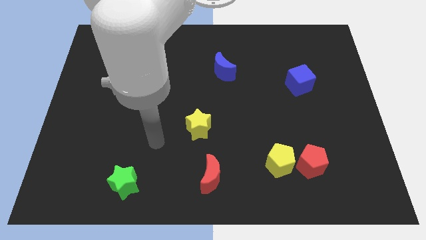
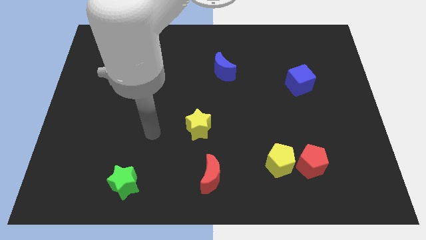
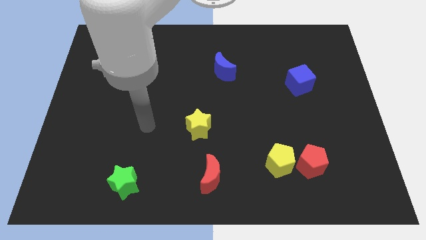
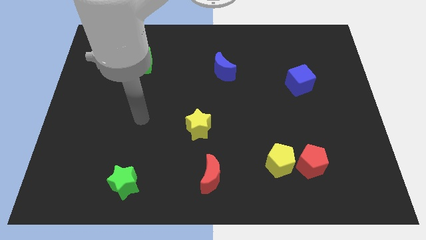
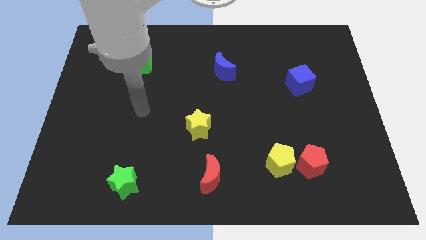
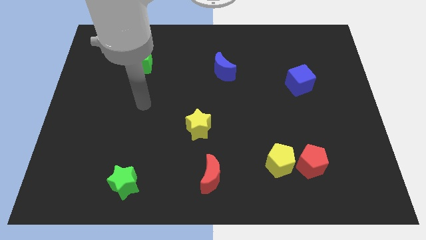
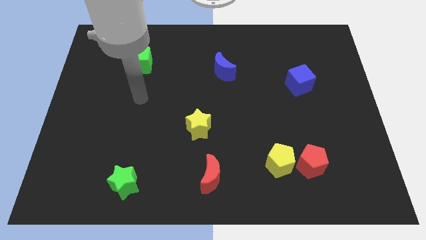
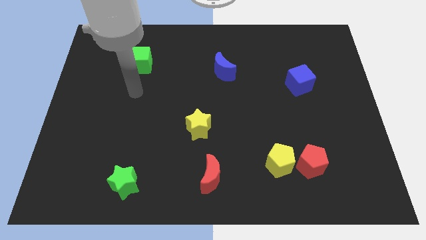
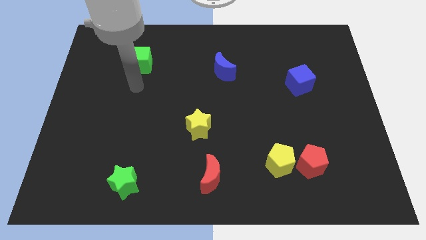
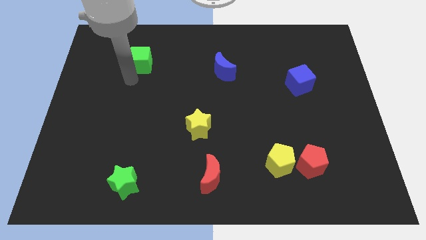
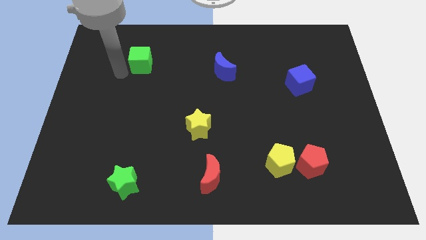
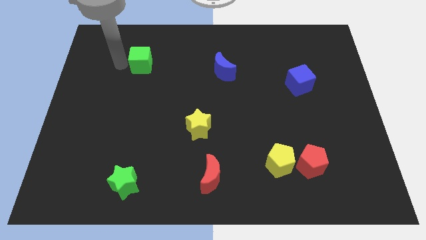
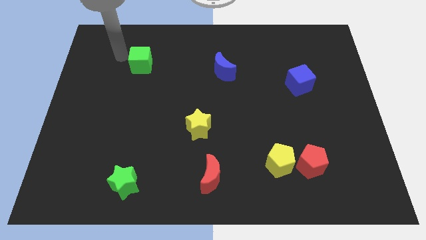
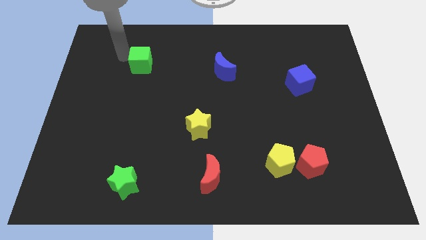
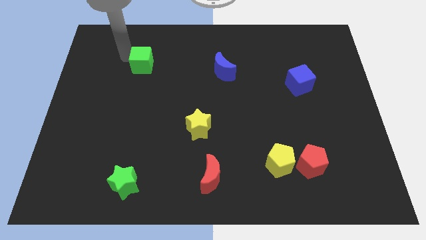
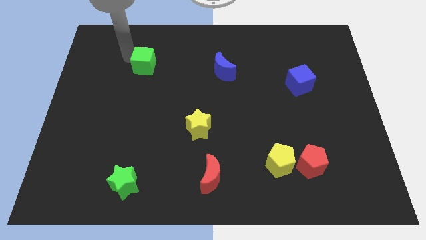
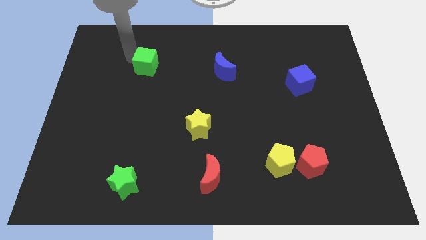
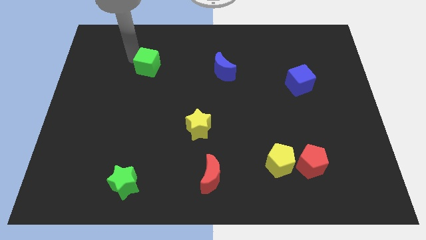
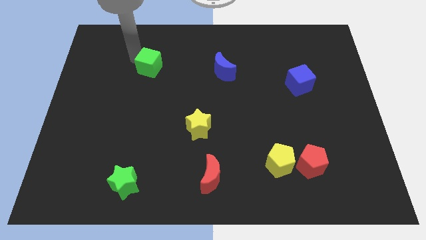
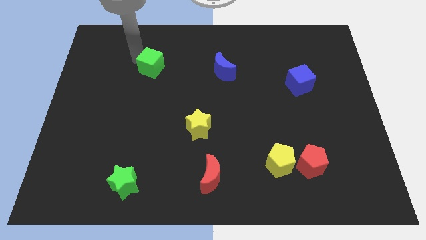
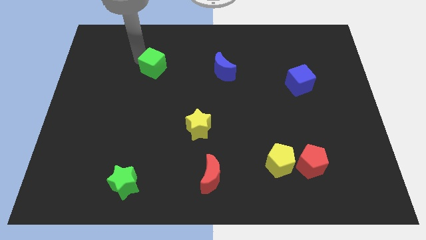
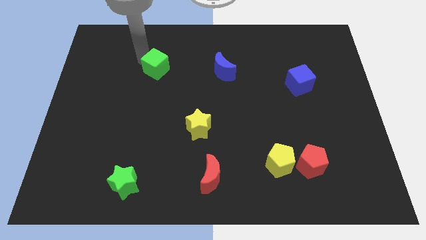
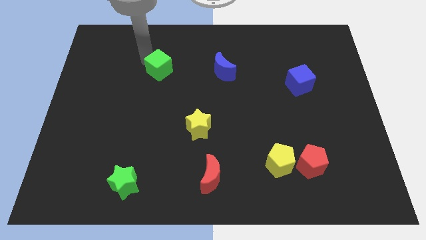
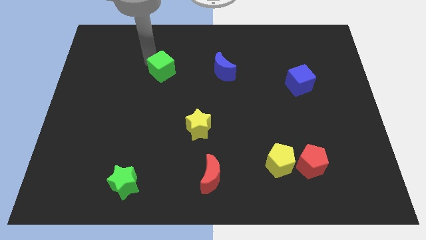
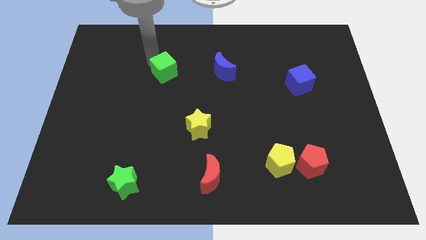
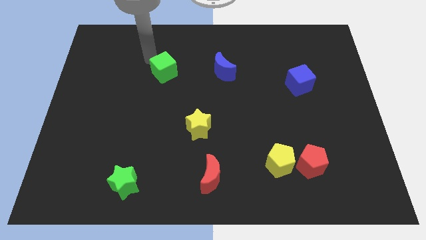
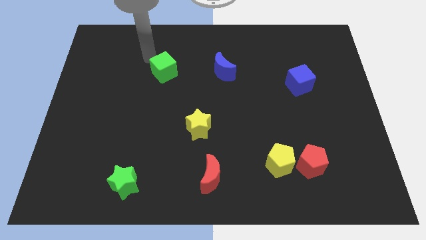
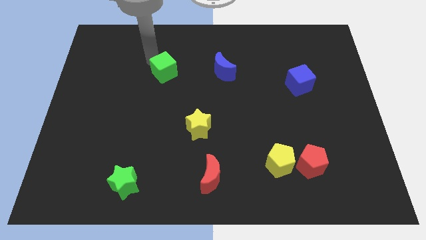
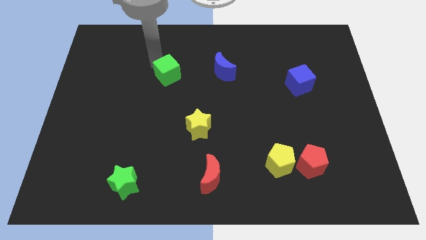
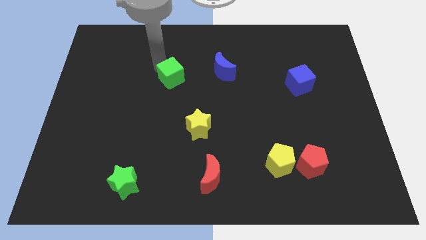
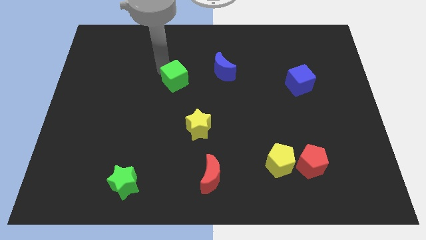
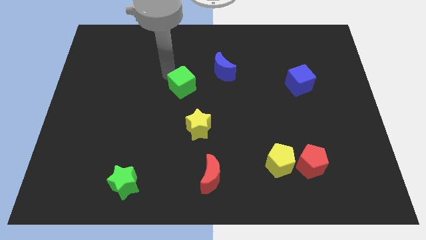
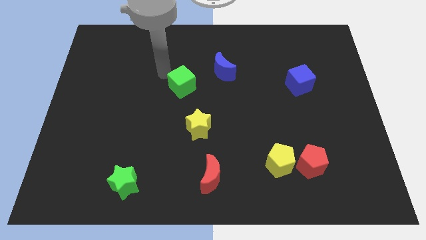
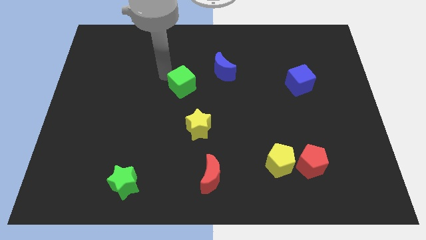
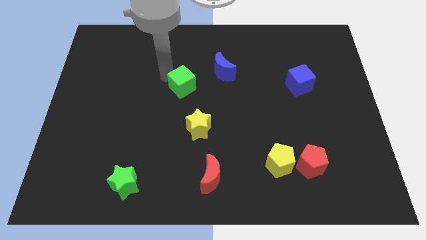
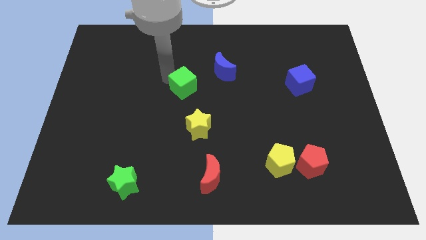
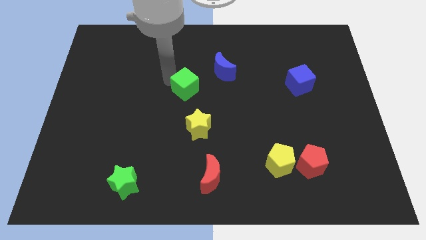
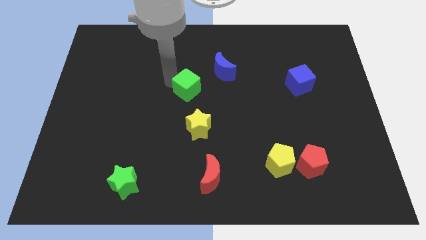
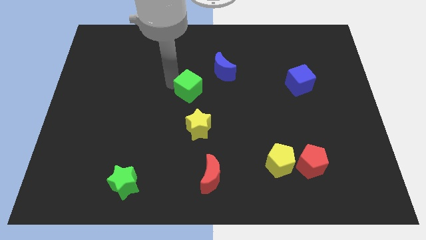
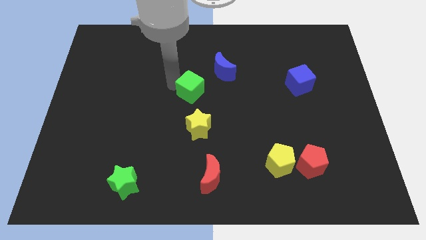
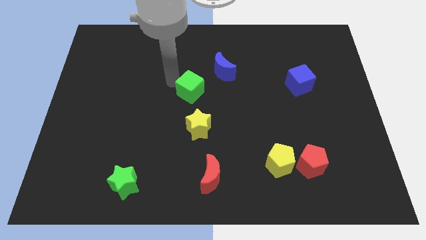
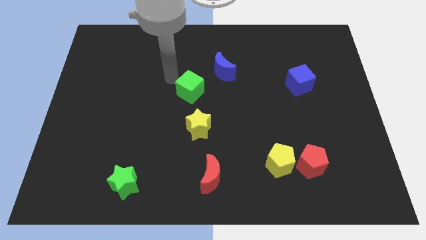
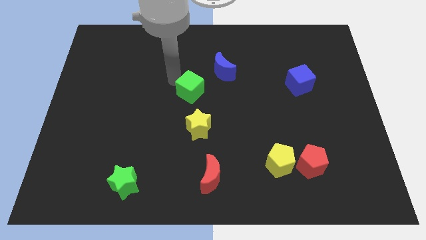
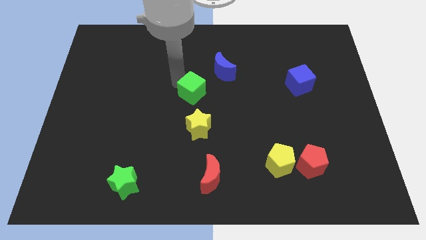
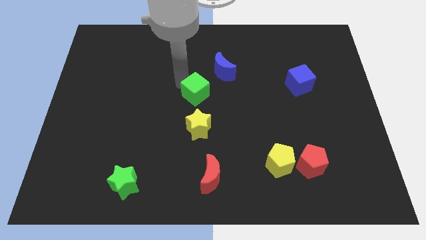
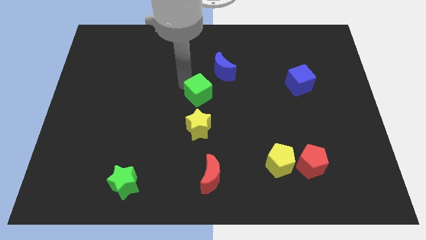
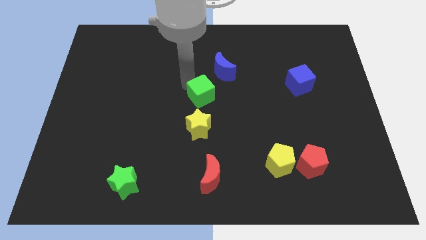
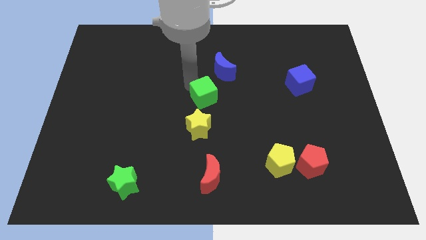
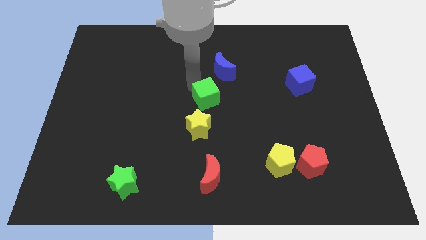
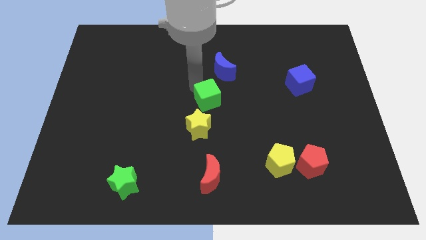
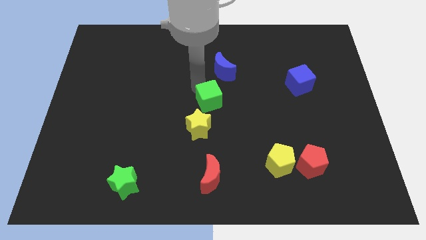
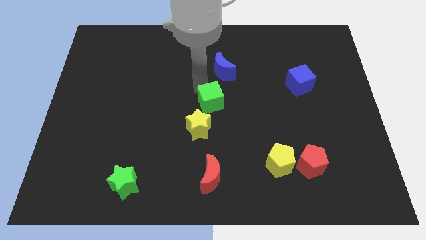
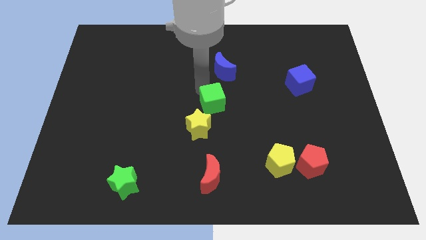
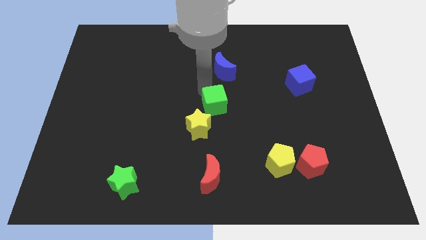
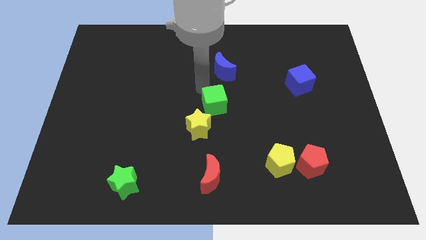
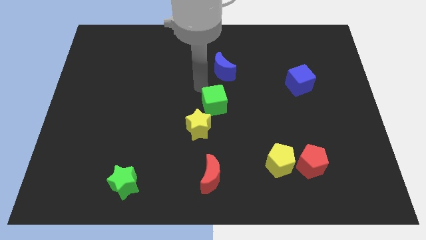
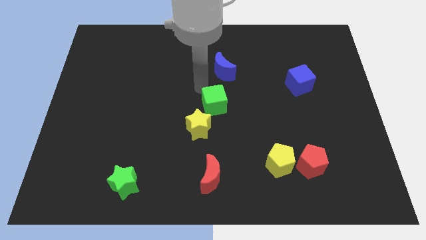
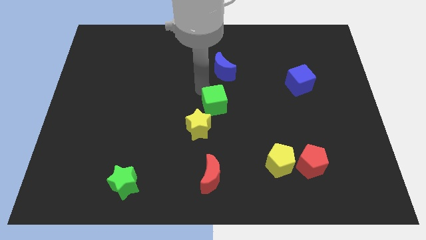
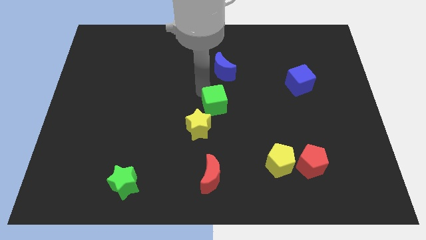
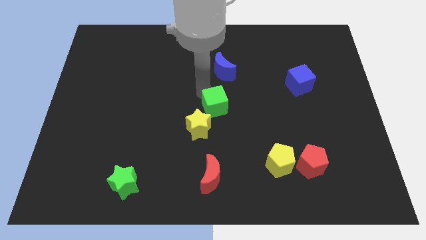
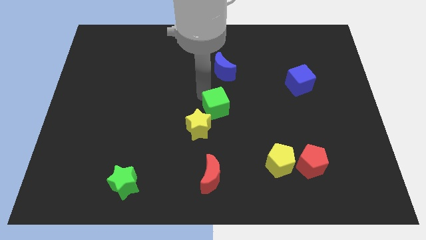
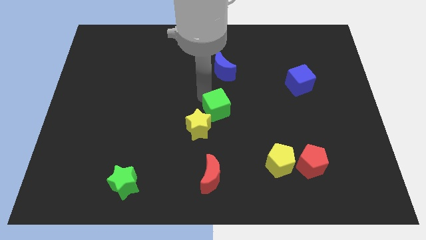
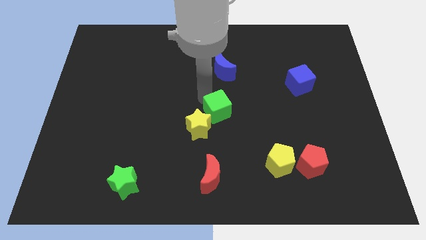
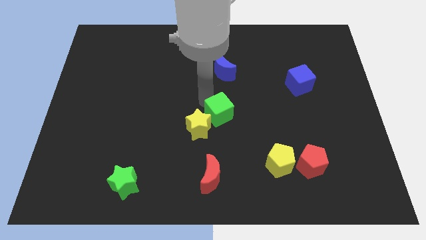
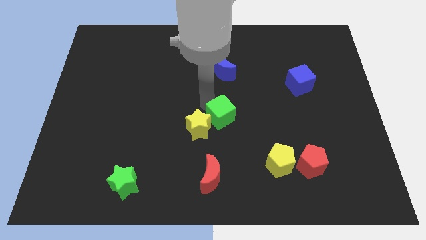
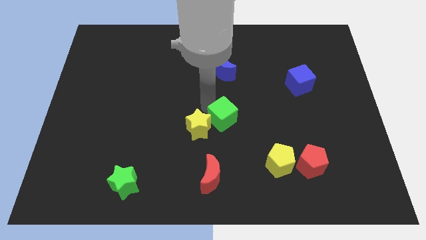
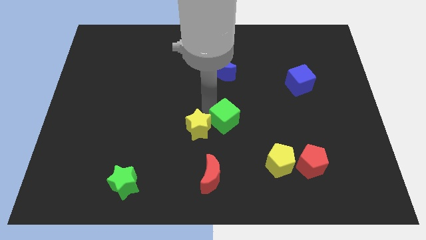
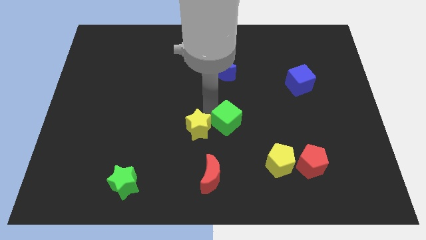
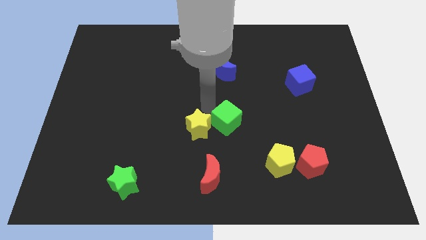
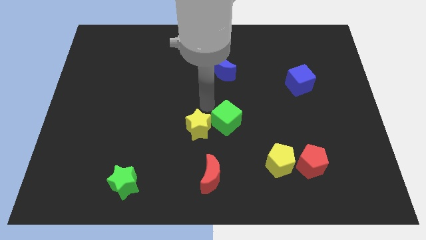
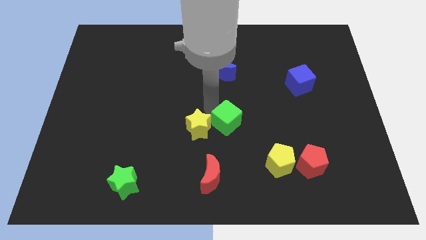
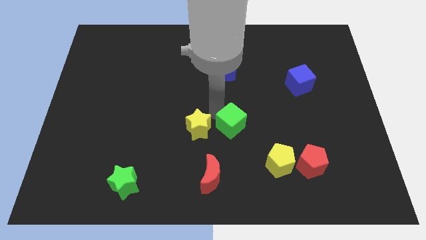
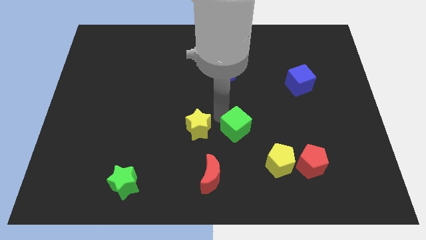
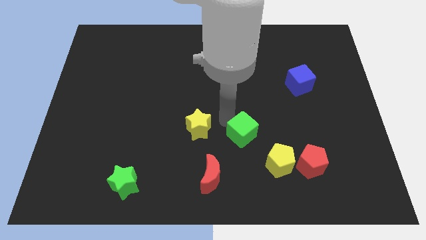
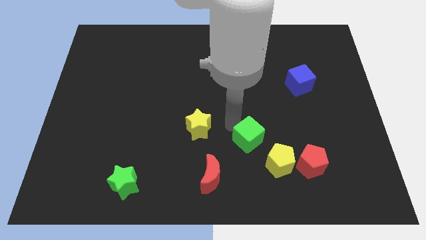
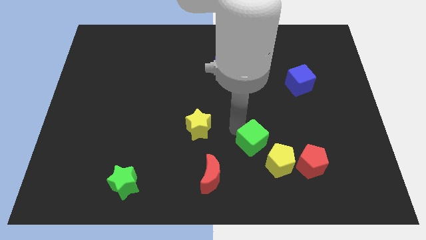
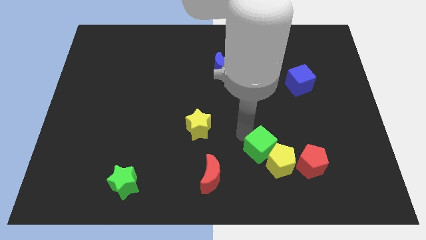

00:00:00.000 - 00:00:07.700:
push the green cube next to the yellow pentagon
